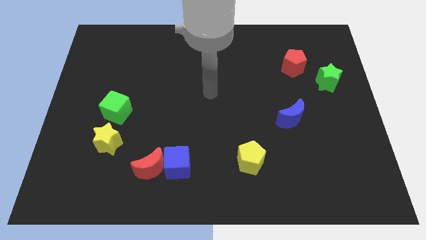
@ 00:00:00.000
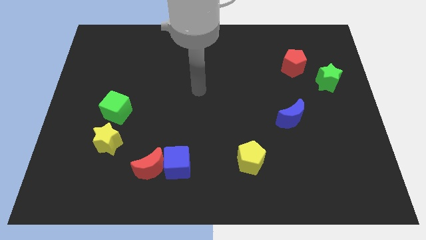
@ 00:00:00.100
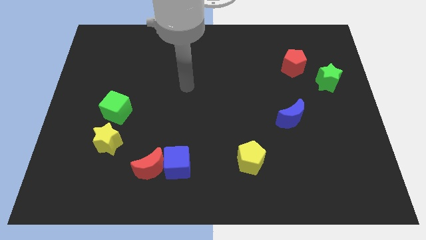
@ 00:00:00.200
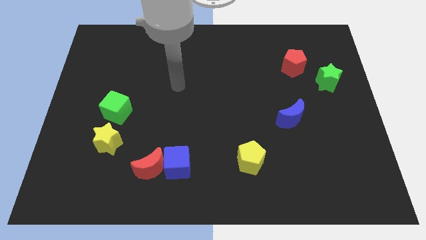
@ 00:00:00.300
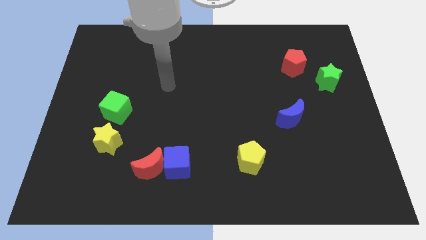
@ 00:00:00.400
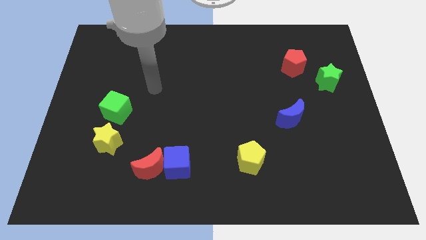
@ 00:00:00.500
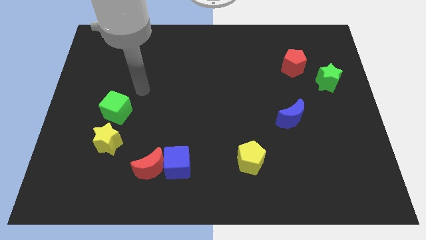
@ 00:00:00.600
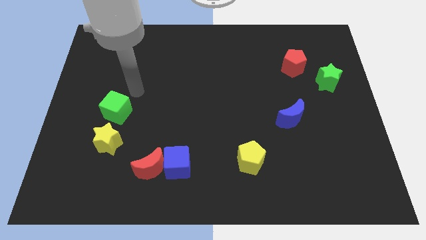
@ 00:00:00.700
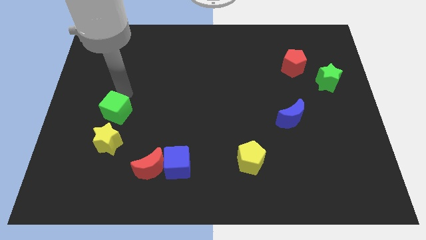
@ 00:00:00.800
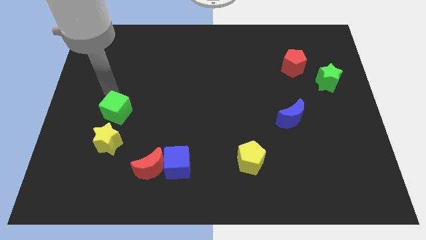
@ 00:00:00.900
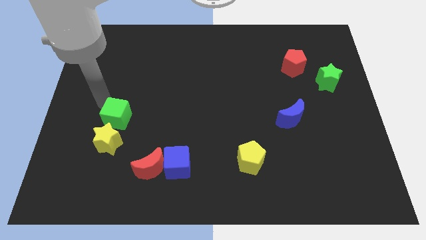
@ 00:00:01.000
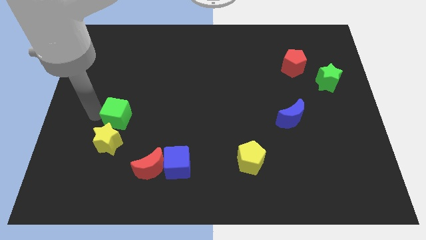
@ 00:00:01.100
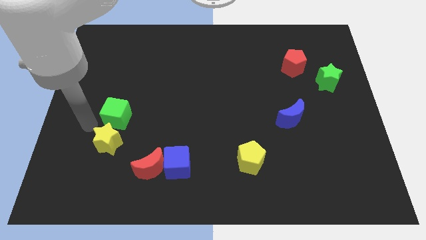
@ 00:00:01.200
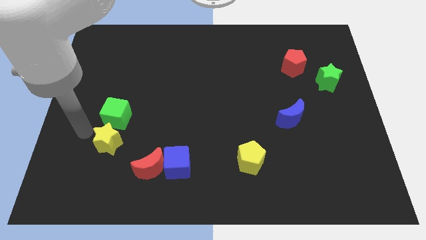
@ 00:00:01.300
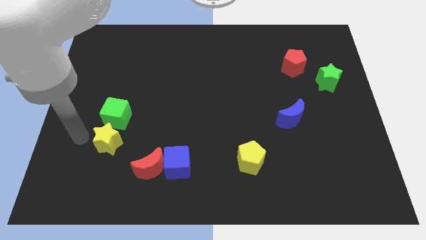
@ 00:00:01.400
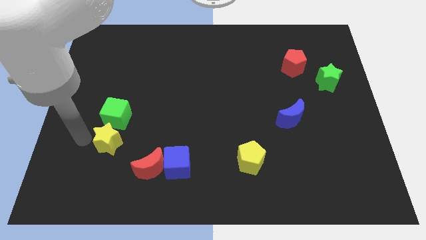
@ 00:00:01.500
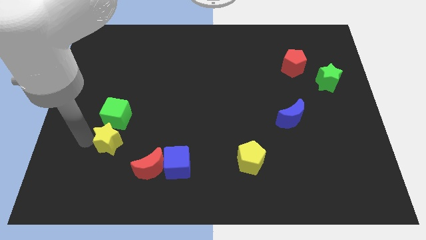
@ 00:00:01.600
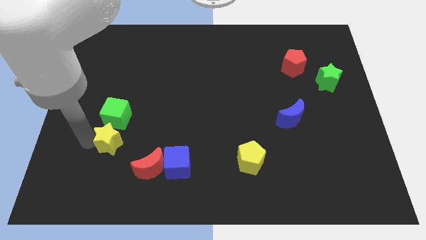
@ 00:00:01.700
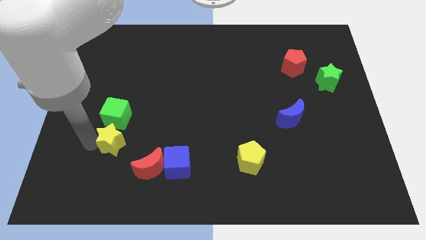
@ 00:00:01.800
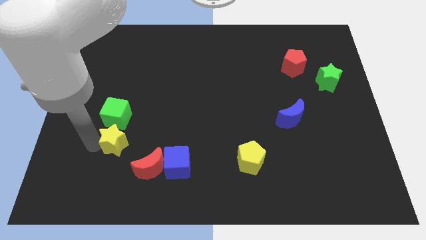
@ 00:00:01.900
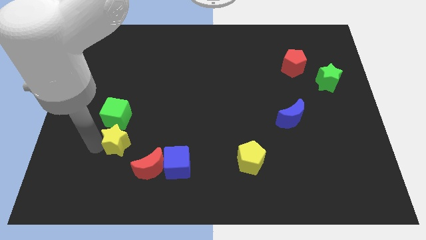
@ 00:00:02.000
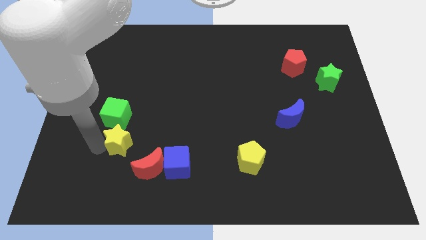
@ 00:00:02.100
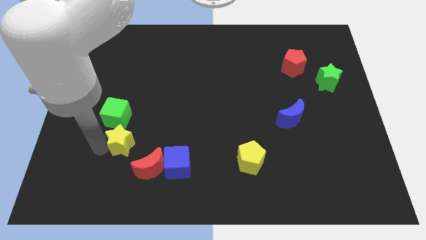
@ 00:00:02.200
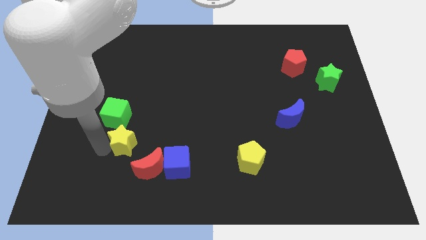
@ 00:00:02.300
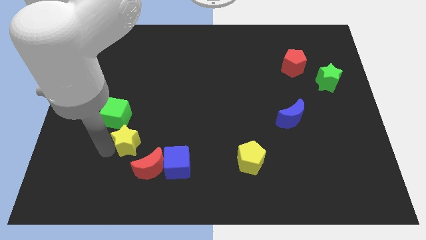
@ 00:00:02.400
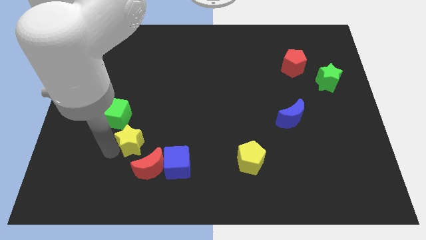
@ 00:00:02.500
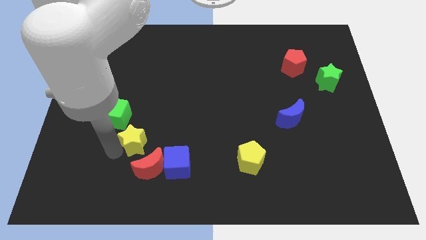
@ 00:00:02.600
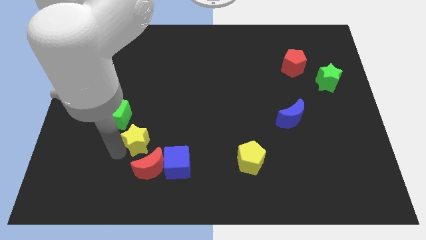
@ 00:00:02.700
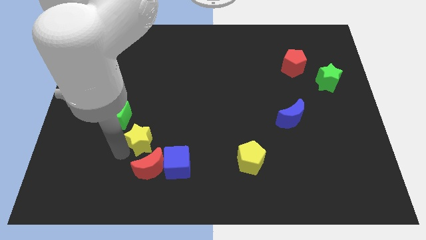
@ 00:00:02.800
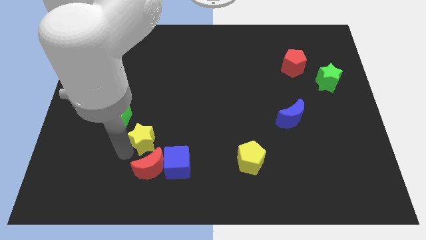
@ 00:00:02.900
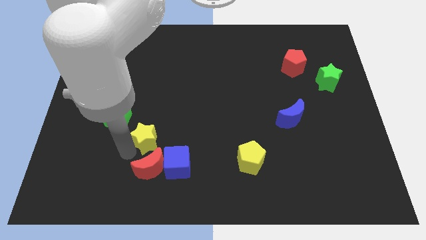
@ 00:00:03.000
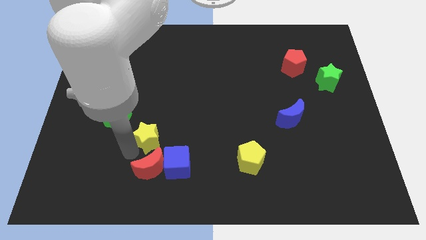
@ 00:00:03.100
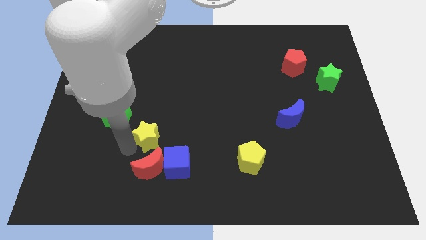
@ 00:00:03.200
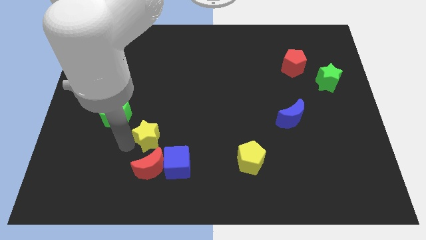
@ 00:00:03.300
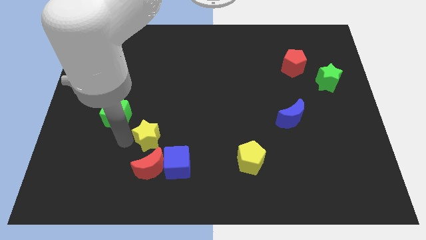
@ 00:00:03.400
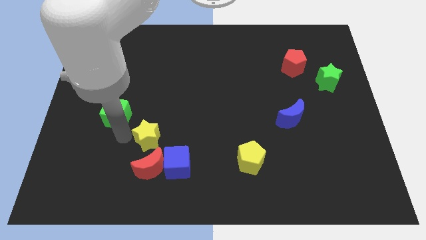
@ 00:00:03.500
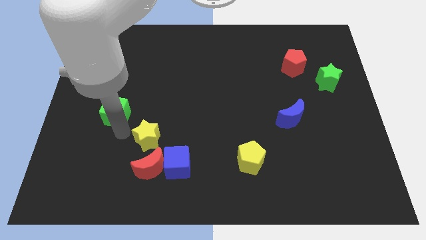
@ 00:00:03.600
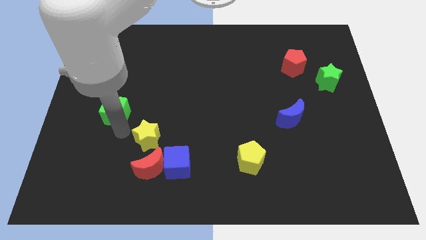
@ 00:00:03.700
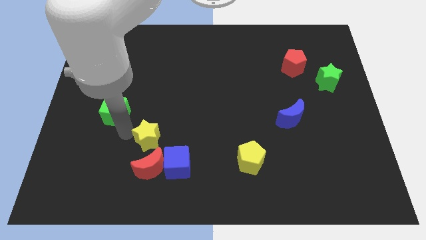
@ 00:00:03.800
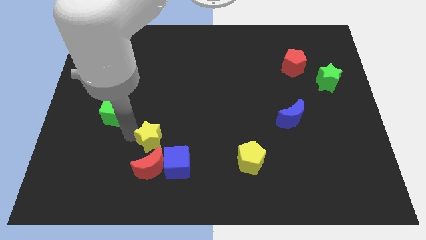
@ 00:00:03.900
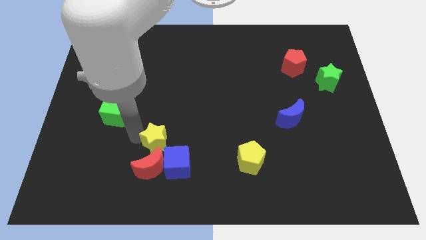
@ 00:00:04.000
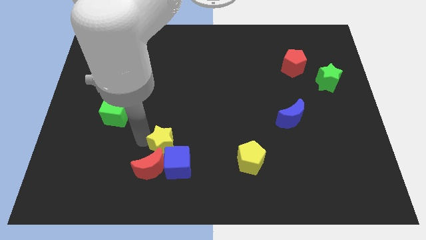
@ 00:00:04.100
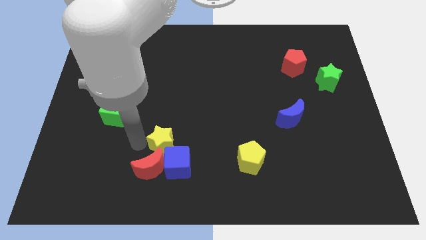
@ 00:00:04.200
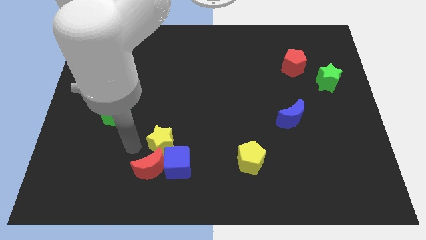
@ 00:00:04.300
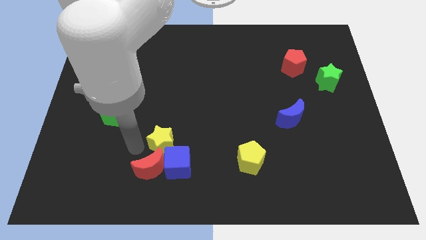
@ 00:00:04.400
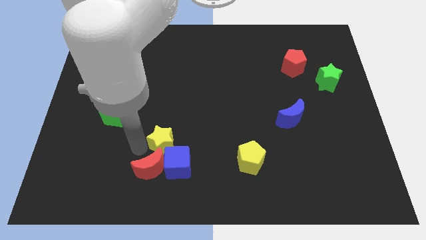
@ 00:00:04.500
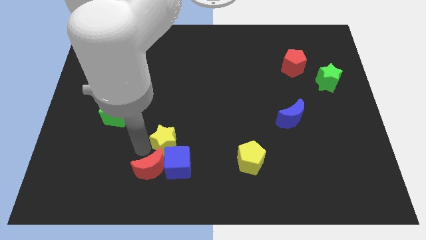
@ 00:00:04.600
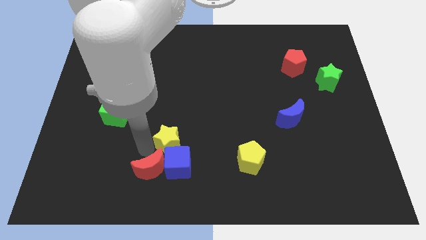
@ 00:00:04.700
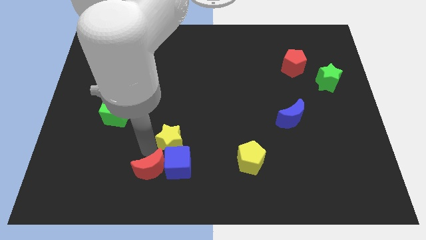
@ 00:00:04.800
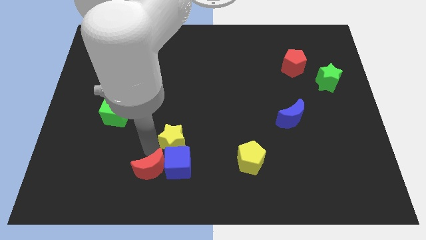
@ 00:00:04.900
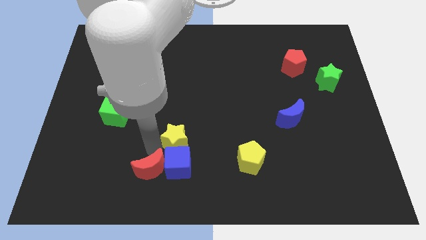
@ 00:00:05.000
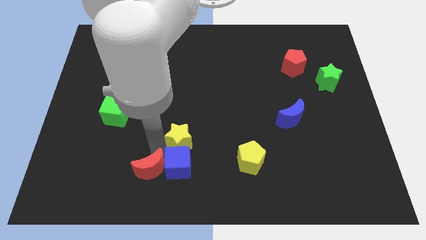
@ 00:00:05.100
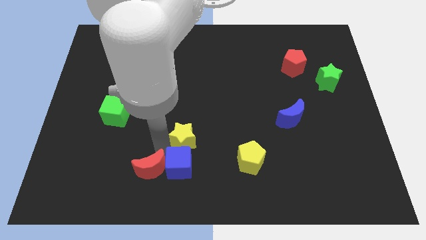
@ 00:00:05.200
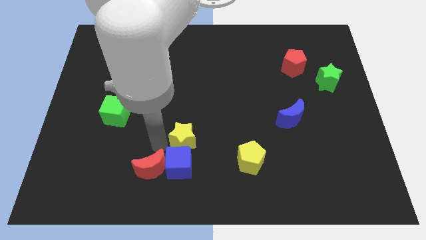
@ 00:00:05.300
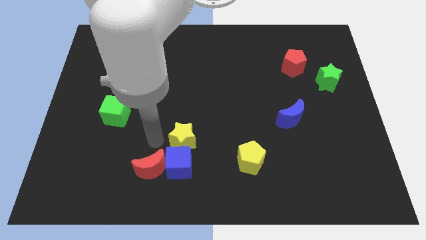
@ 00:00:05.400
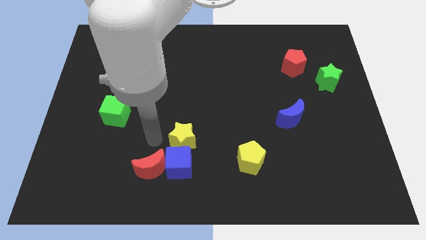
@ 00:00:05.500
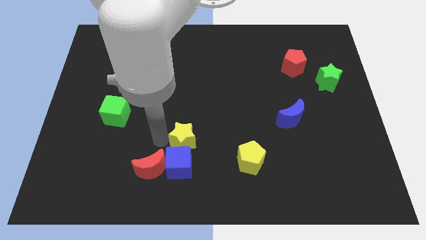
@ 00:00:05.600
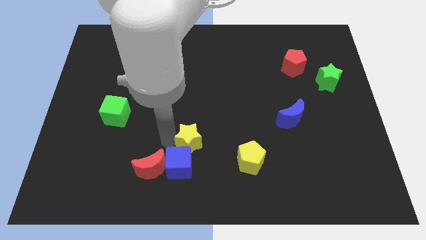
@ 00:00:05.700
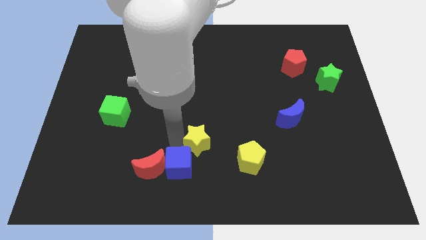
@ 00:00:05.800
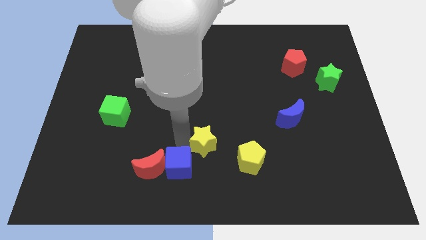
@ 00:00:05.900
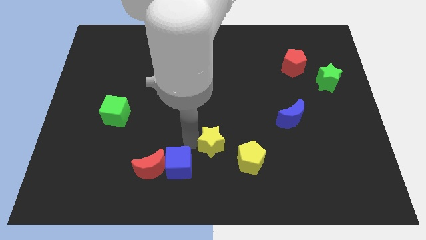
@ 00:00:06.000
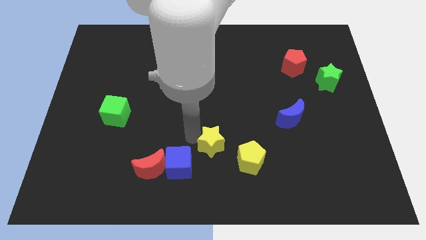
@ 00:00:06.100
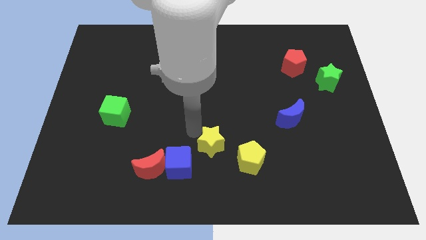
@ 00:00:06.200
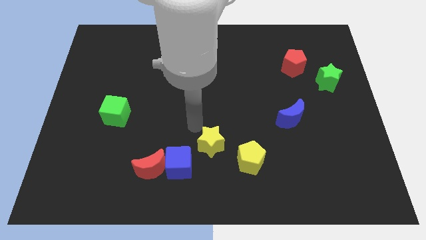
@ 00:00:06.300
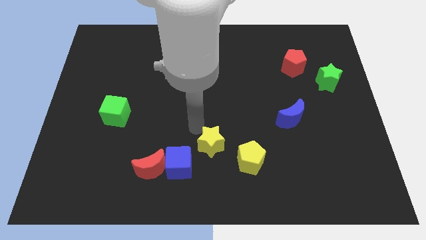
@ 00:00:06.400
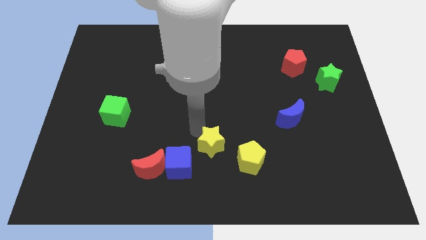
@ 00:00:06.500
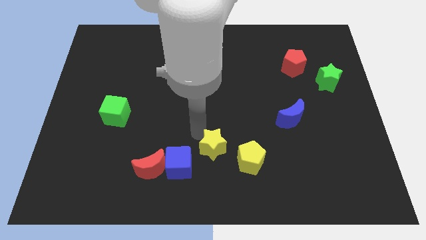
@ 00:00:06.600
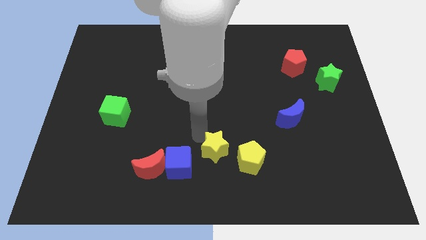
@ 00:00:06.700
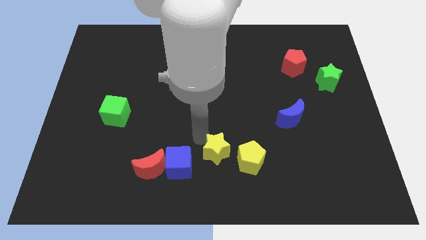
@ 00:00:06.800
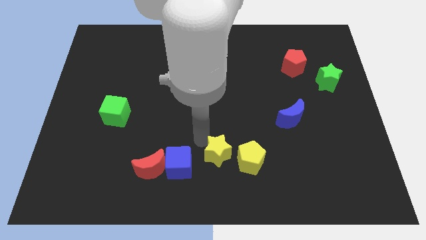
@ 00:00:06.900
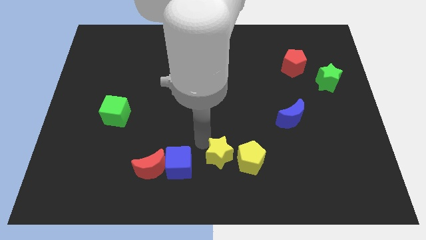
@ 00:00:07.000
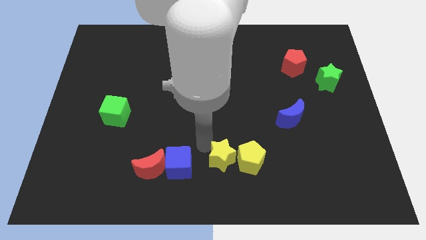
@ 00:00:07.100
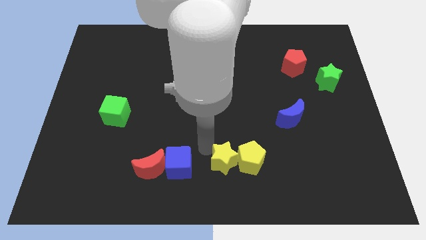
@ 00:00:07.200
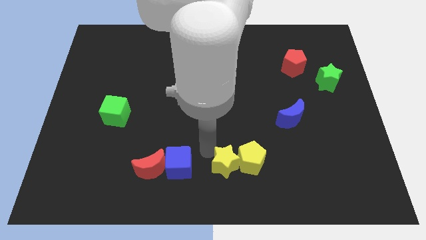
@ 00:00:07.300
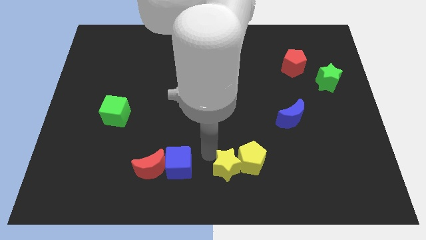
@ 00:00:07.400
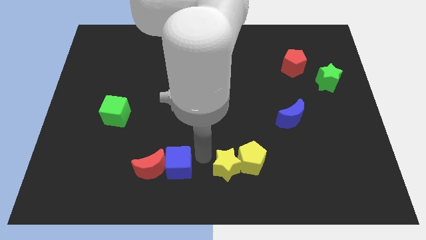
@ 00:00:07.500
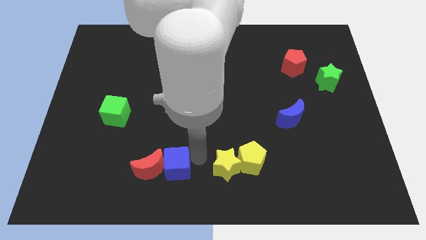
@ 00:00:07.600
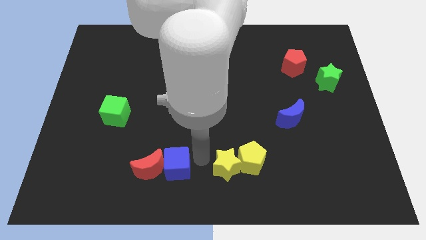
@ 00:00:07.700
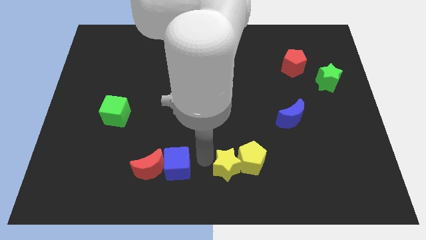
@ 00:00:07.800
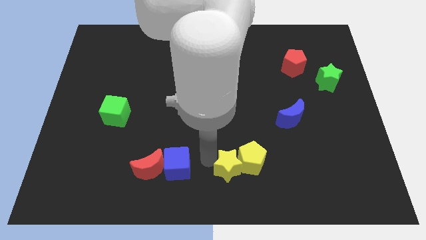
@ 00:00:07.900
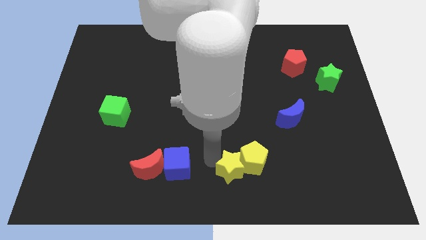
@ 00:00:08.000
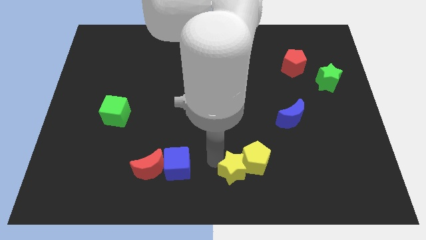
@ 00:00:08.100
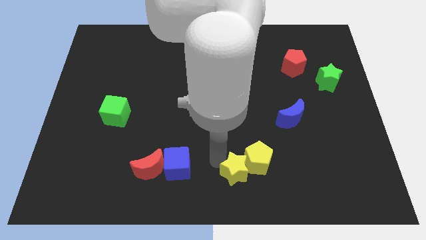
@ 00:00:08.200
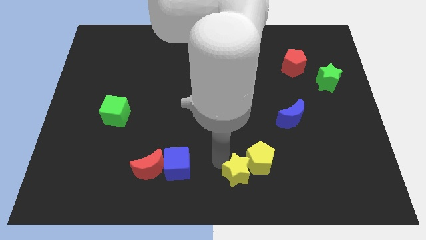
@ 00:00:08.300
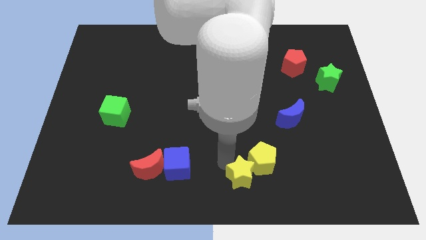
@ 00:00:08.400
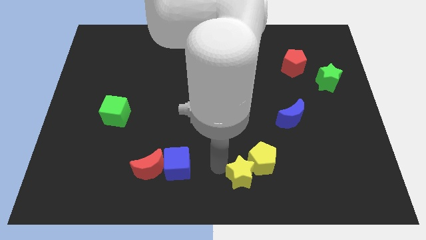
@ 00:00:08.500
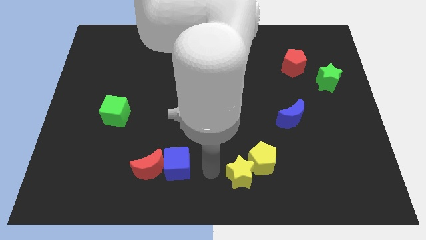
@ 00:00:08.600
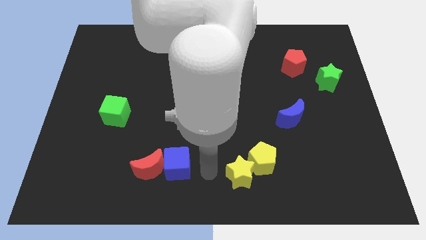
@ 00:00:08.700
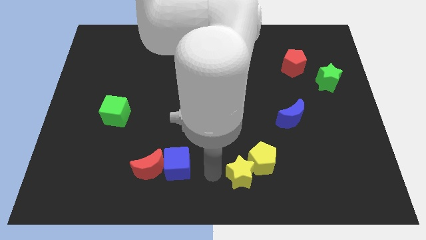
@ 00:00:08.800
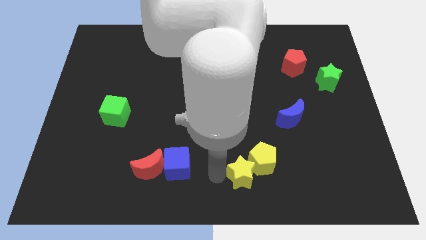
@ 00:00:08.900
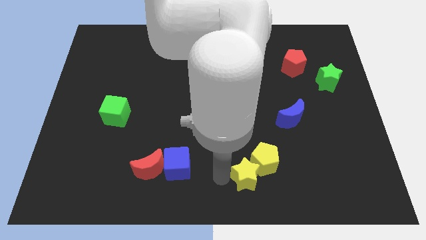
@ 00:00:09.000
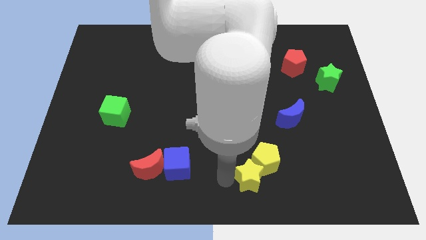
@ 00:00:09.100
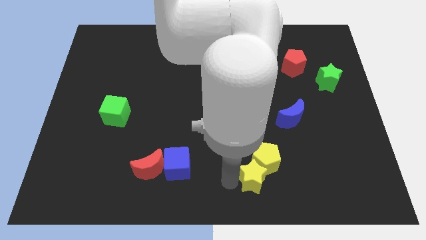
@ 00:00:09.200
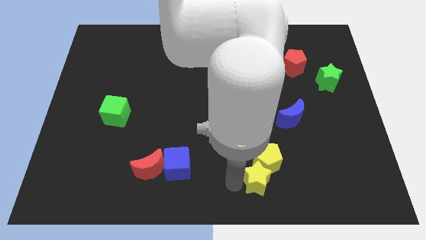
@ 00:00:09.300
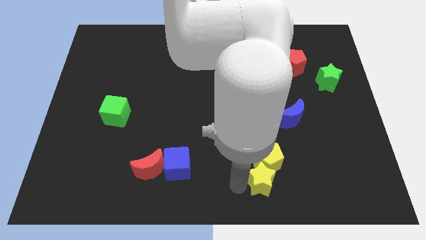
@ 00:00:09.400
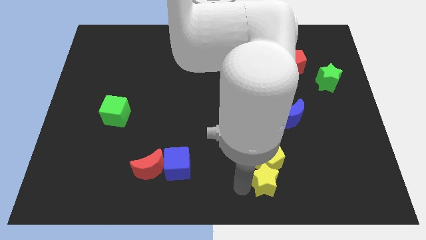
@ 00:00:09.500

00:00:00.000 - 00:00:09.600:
put the yellow star to the bottom right of the yellow pentagon
